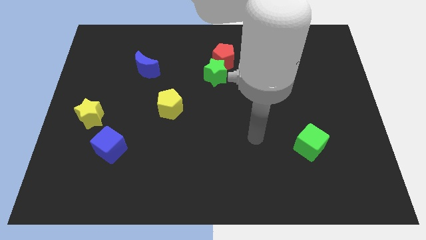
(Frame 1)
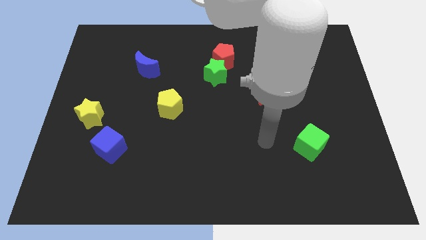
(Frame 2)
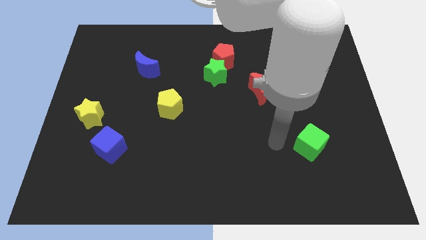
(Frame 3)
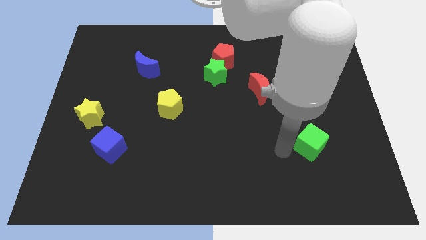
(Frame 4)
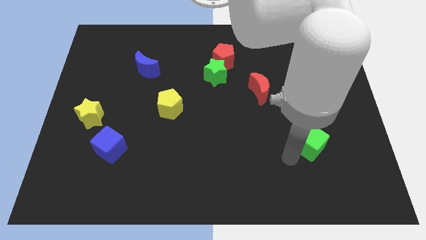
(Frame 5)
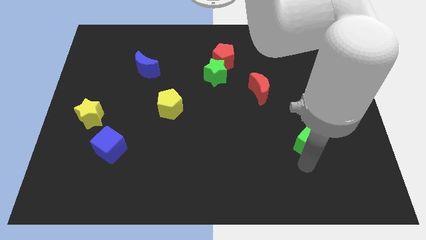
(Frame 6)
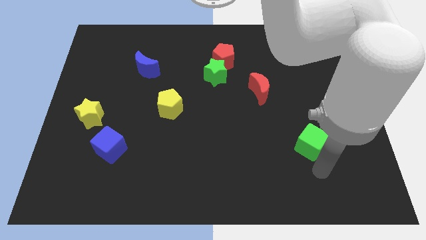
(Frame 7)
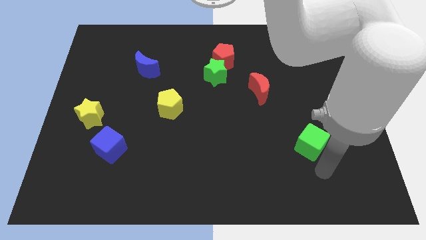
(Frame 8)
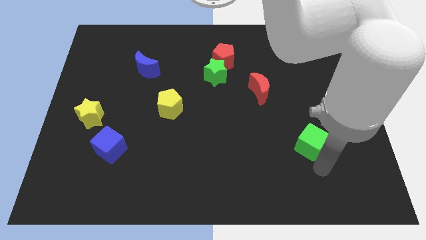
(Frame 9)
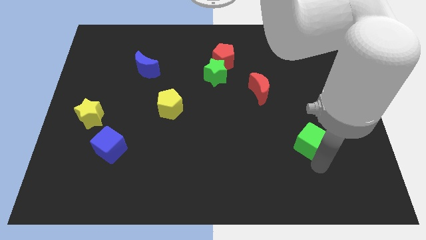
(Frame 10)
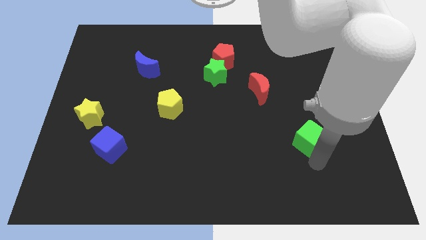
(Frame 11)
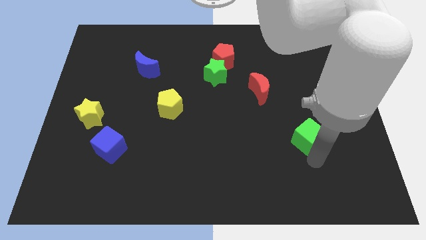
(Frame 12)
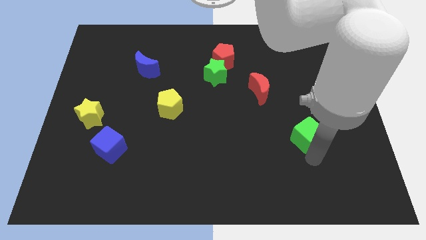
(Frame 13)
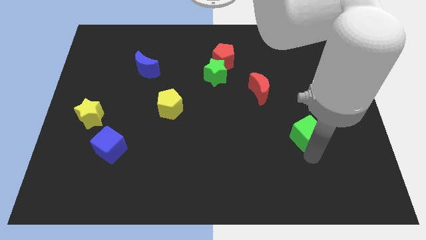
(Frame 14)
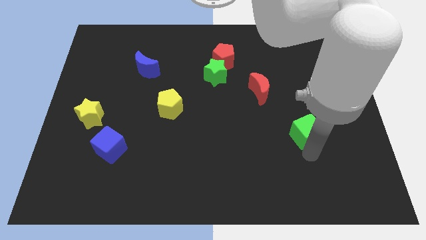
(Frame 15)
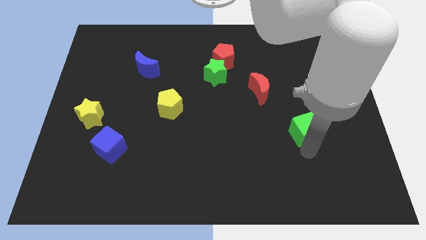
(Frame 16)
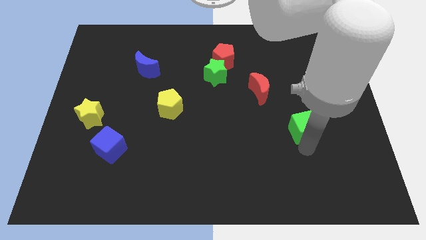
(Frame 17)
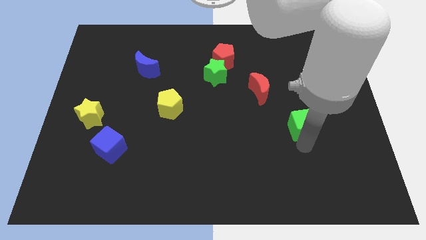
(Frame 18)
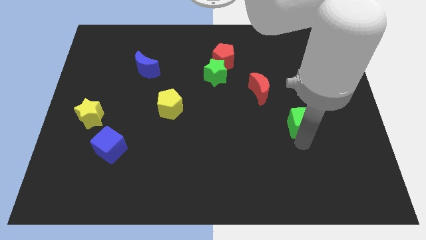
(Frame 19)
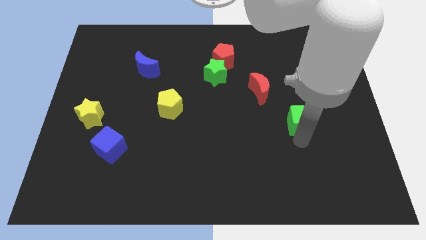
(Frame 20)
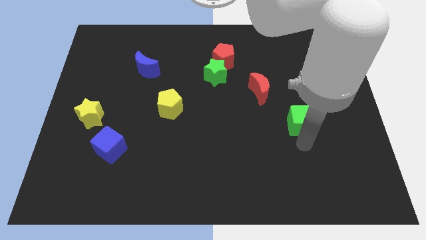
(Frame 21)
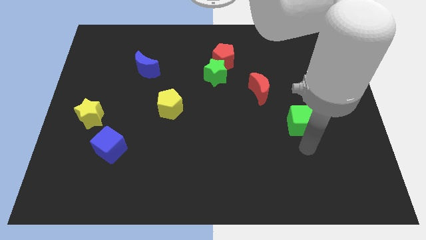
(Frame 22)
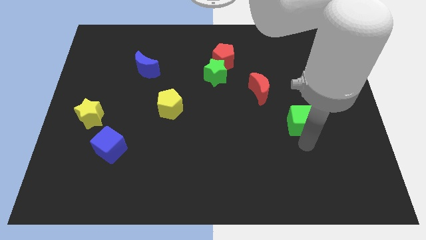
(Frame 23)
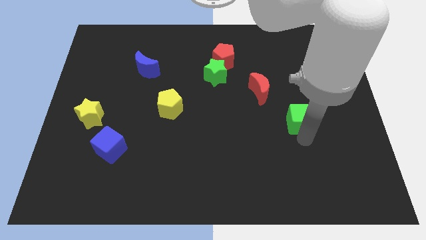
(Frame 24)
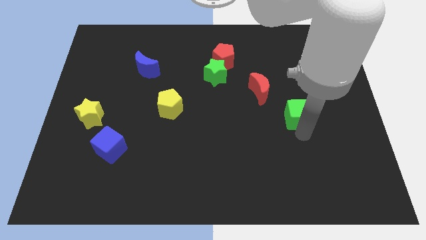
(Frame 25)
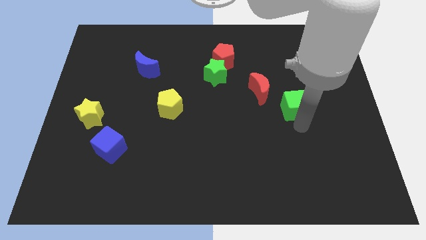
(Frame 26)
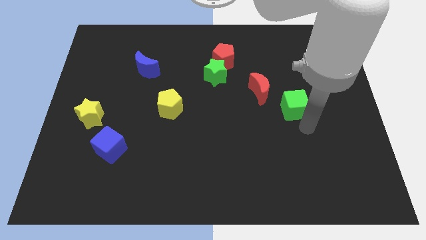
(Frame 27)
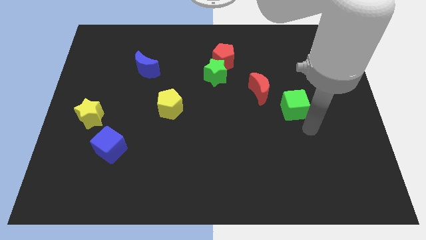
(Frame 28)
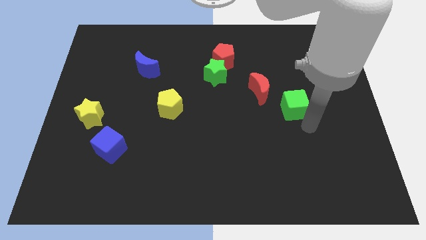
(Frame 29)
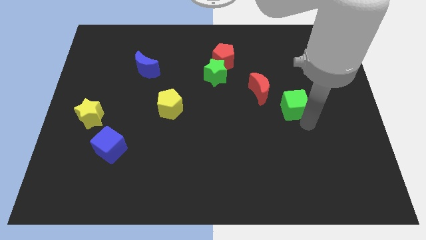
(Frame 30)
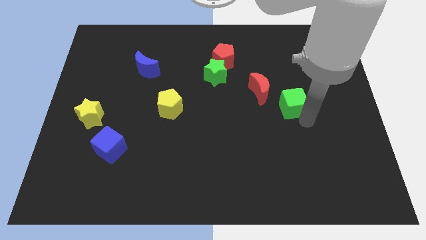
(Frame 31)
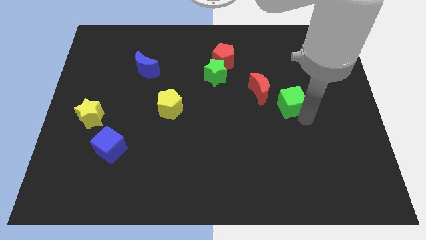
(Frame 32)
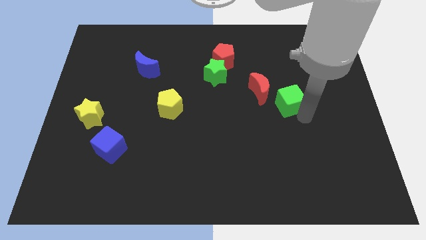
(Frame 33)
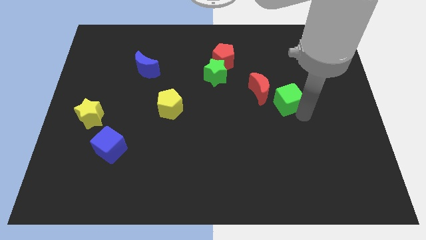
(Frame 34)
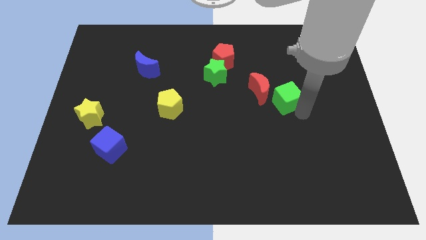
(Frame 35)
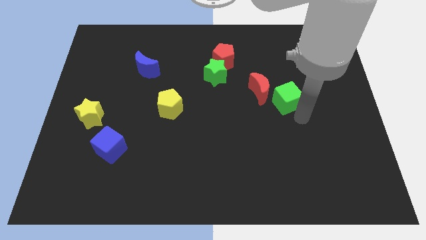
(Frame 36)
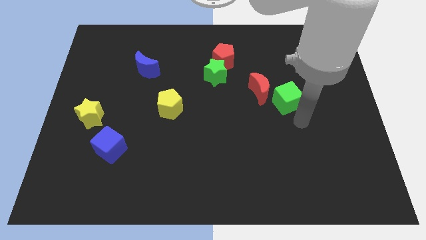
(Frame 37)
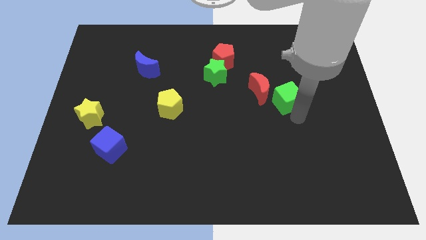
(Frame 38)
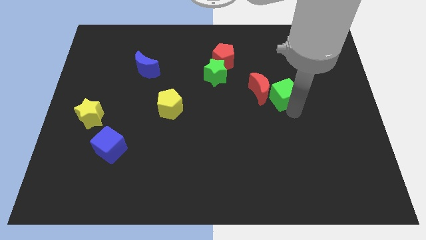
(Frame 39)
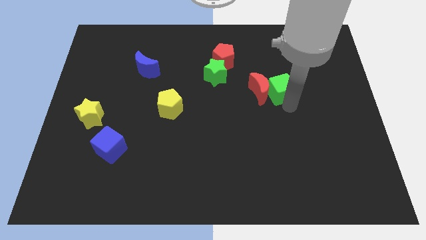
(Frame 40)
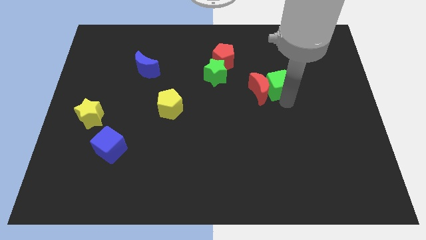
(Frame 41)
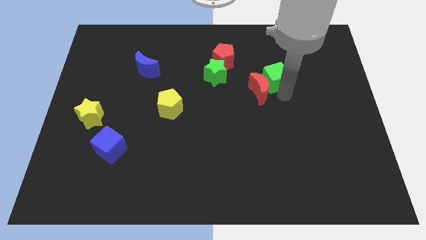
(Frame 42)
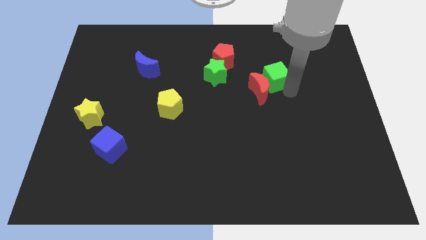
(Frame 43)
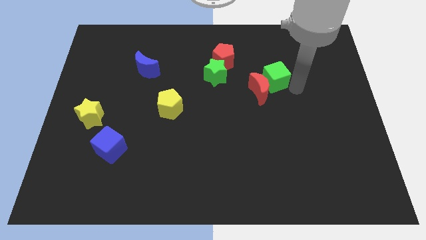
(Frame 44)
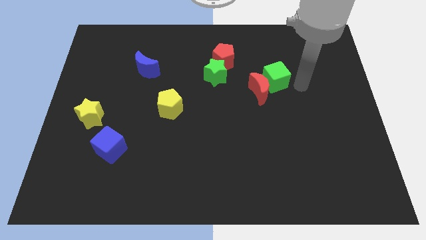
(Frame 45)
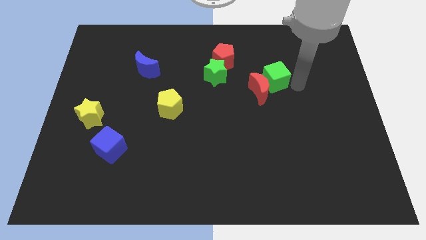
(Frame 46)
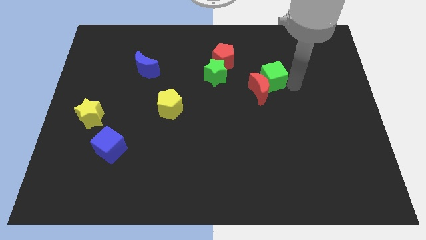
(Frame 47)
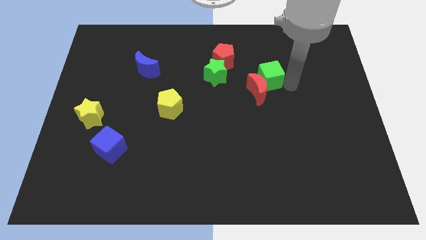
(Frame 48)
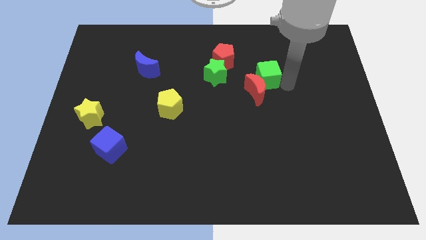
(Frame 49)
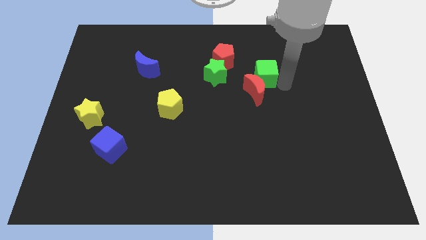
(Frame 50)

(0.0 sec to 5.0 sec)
push the green cube to the bottom right side of the red pentagon

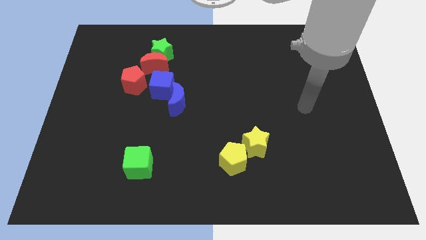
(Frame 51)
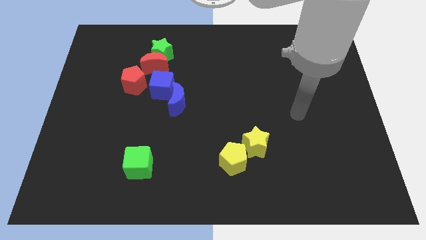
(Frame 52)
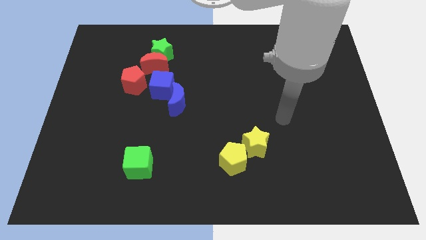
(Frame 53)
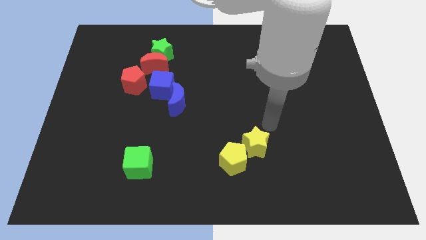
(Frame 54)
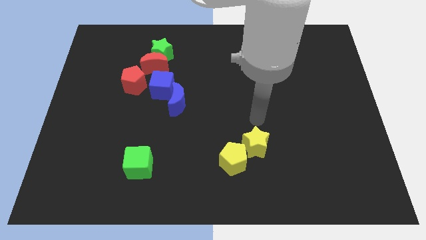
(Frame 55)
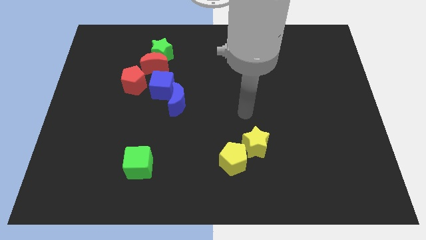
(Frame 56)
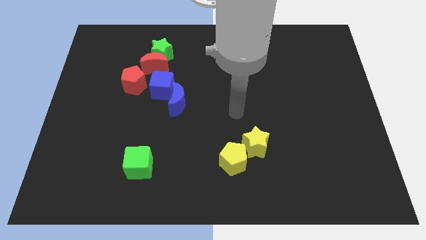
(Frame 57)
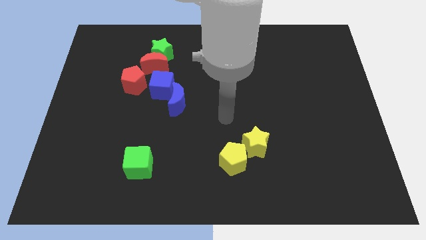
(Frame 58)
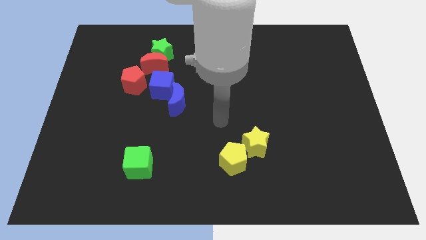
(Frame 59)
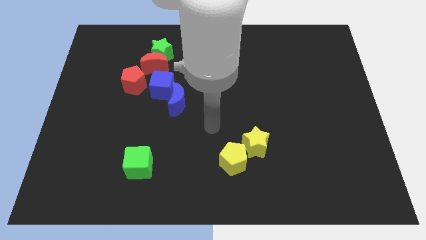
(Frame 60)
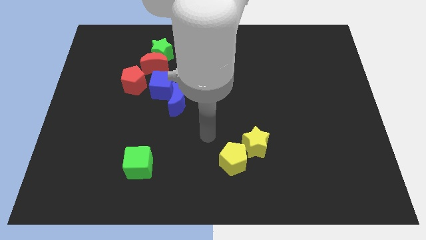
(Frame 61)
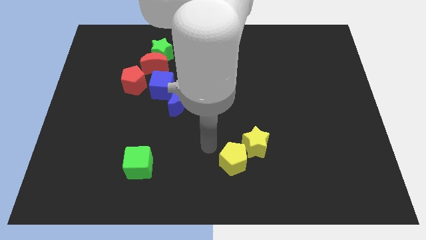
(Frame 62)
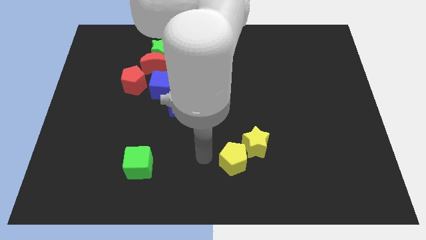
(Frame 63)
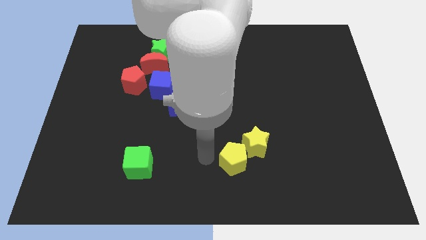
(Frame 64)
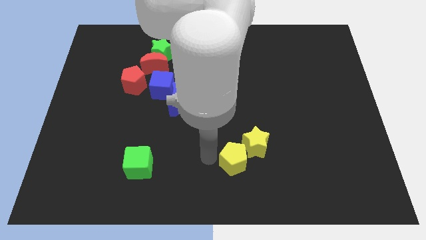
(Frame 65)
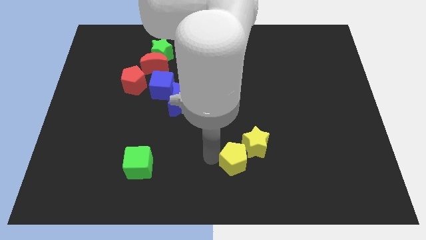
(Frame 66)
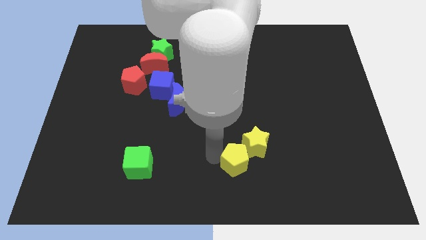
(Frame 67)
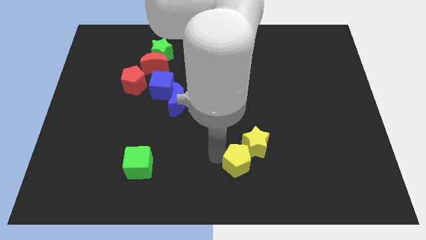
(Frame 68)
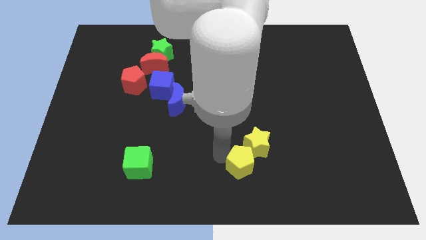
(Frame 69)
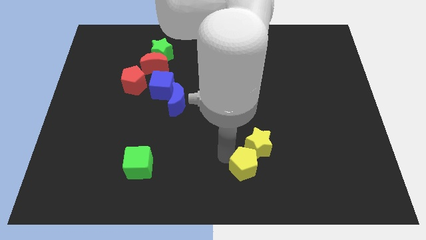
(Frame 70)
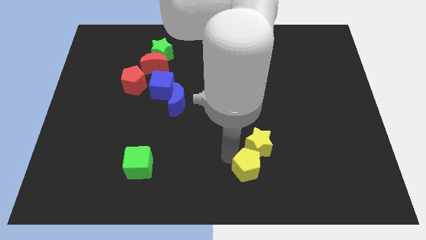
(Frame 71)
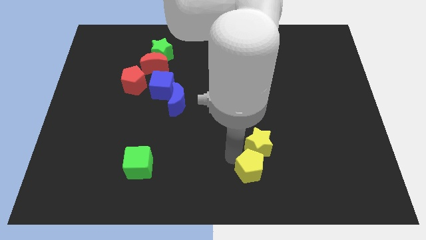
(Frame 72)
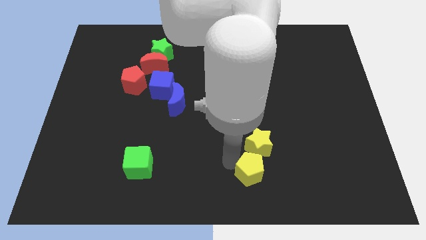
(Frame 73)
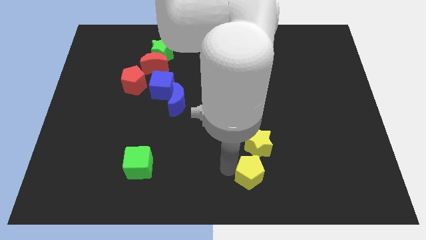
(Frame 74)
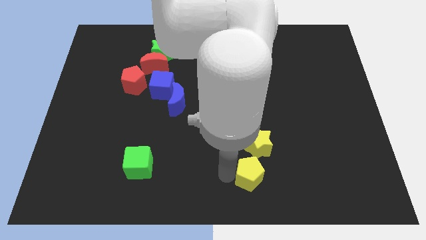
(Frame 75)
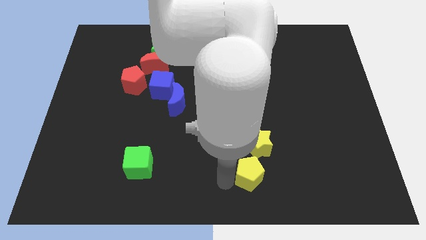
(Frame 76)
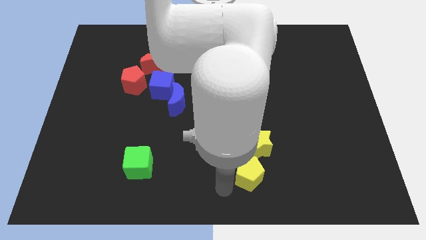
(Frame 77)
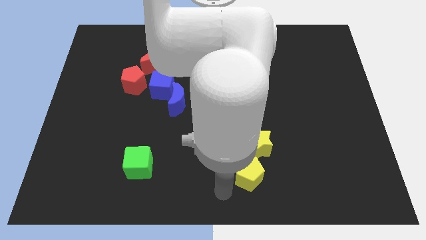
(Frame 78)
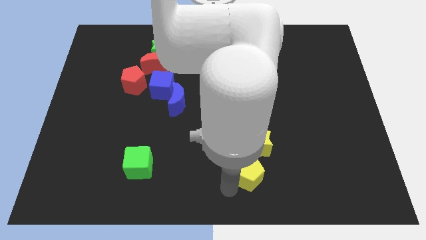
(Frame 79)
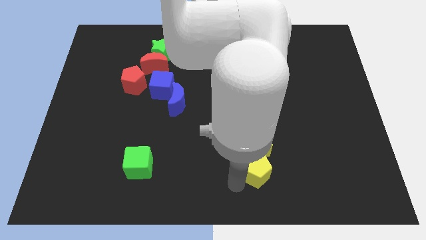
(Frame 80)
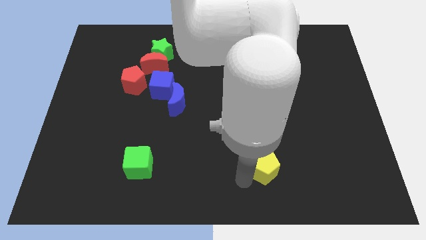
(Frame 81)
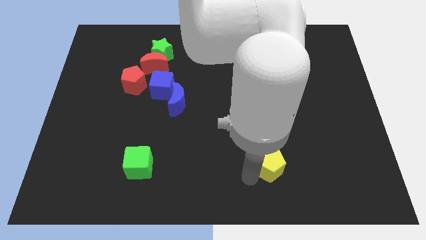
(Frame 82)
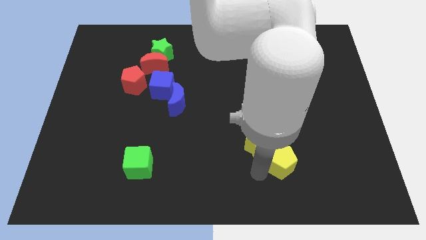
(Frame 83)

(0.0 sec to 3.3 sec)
move the yellow pentagon to the right side of the yellow star
